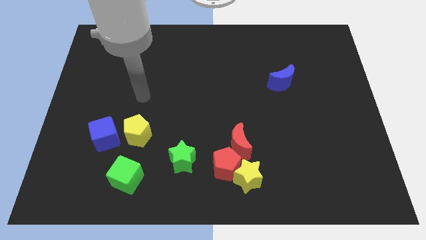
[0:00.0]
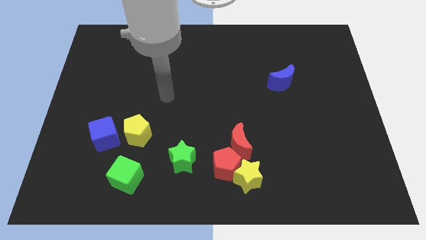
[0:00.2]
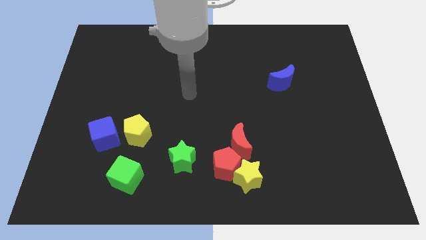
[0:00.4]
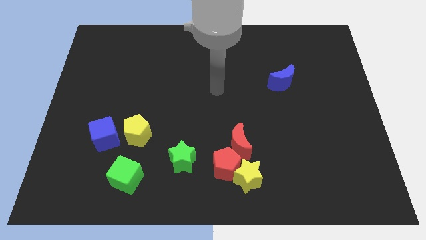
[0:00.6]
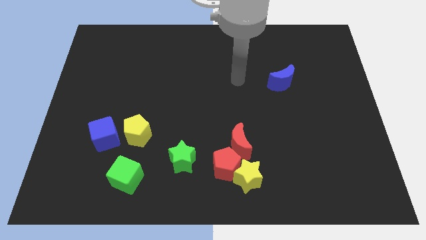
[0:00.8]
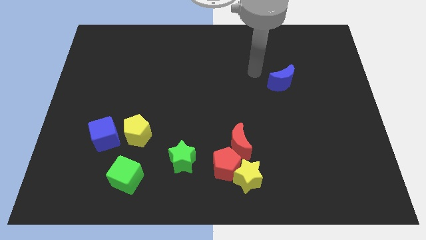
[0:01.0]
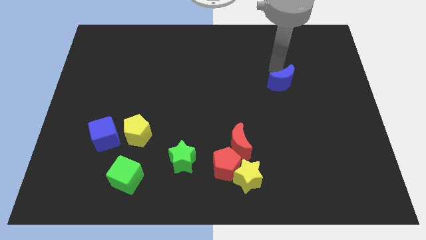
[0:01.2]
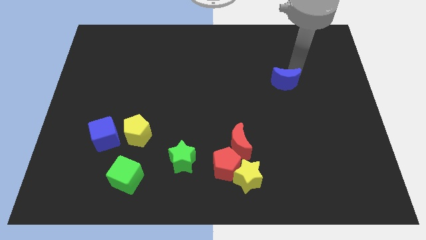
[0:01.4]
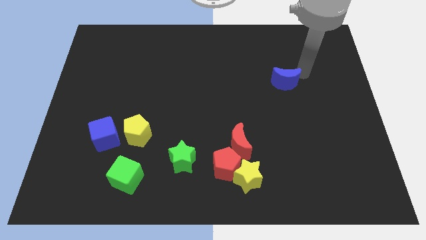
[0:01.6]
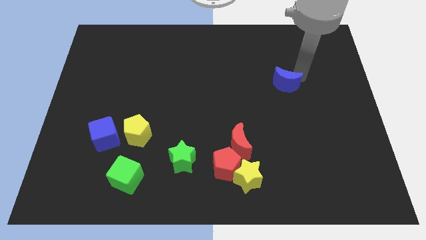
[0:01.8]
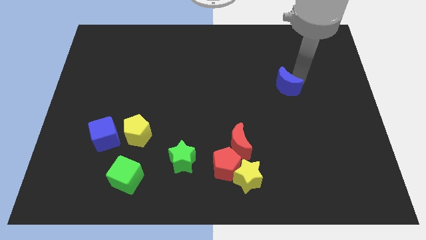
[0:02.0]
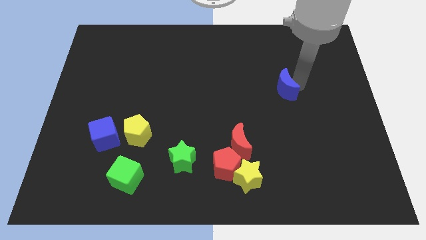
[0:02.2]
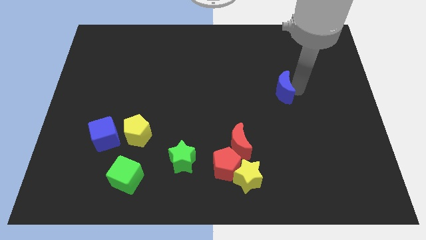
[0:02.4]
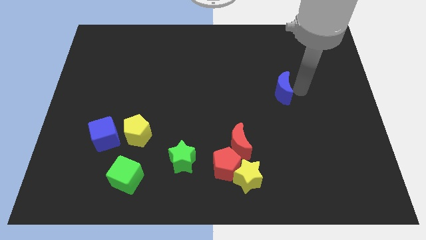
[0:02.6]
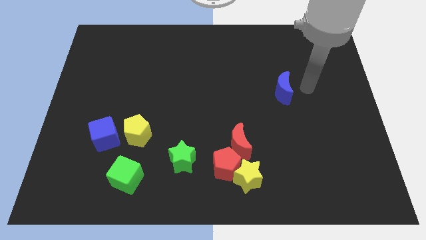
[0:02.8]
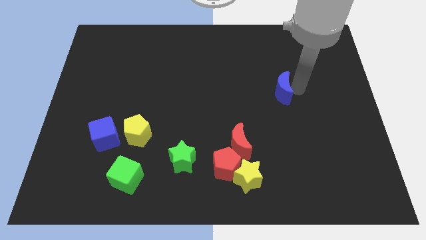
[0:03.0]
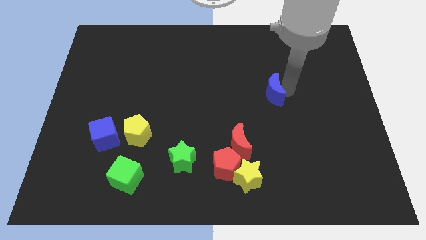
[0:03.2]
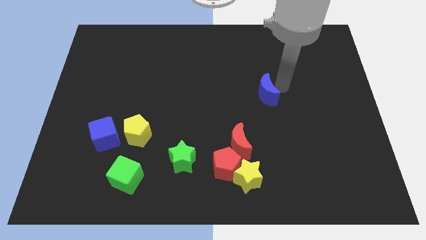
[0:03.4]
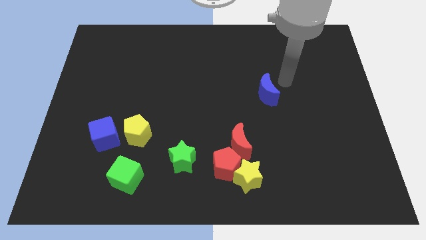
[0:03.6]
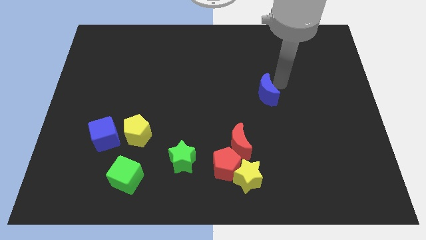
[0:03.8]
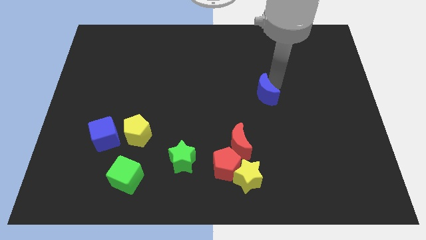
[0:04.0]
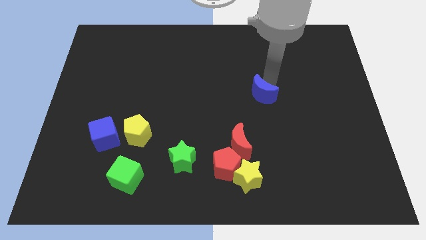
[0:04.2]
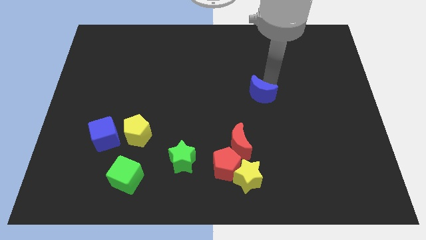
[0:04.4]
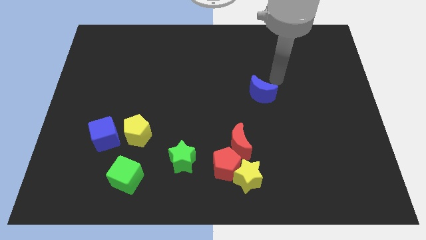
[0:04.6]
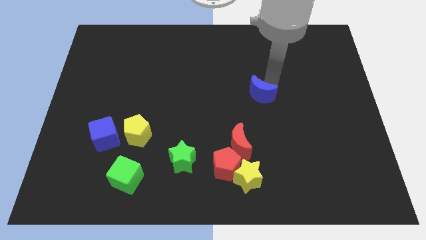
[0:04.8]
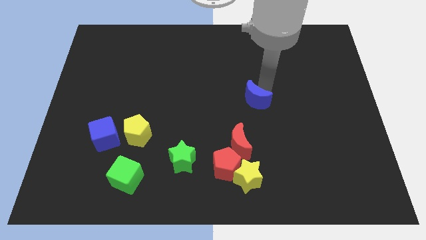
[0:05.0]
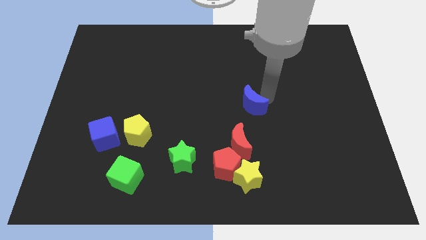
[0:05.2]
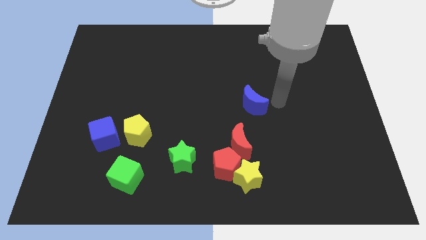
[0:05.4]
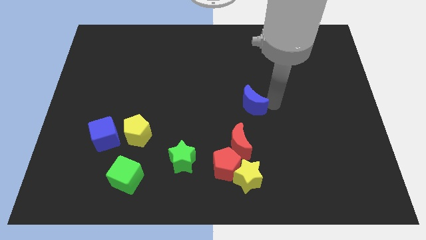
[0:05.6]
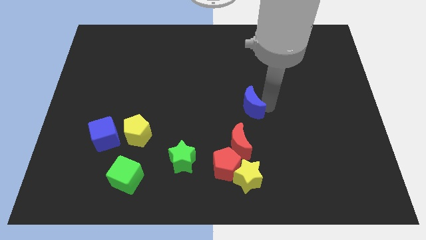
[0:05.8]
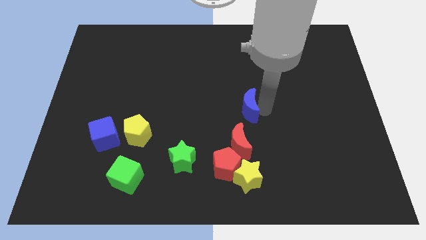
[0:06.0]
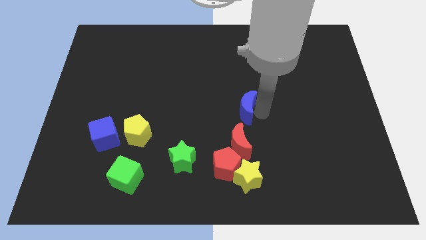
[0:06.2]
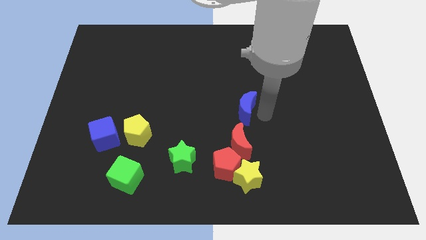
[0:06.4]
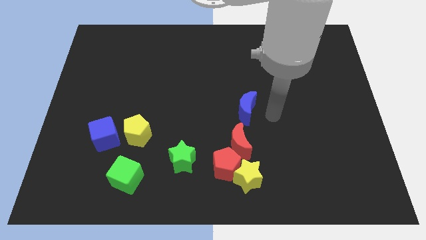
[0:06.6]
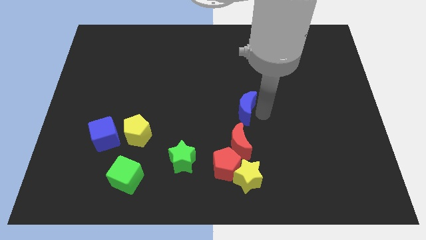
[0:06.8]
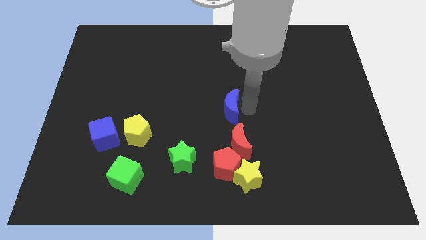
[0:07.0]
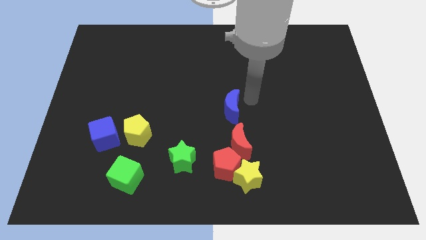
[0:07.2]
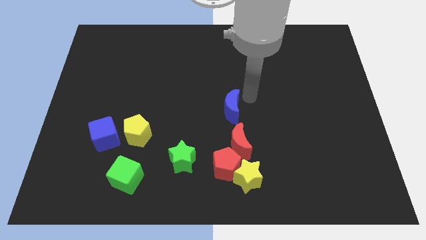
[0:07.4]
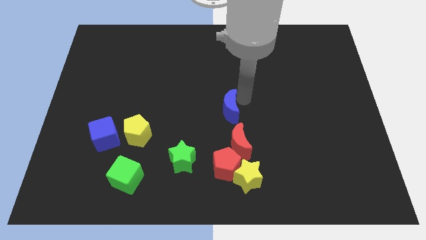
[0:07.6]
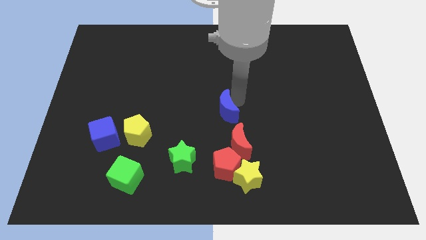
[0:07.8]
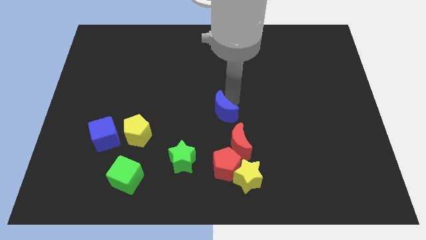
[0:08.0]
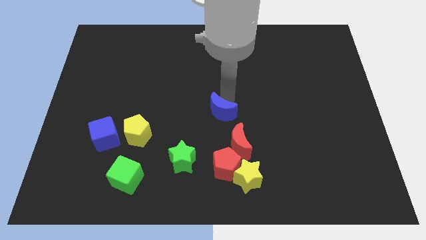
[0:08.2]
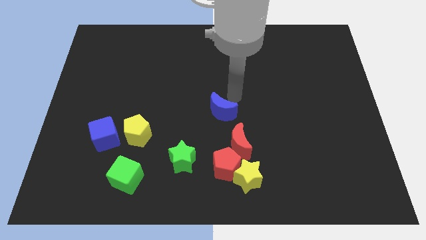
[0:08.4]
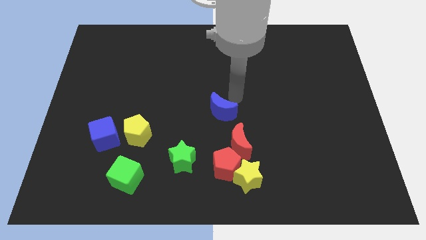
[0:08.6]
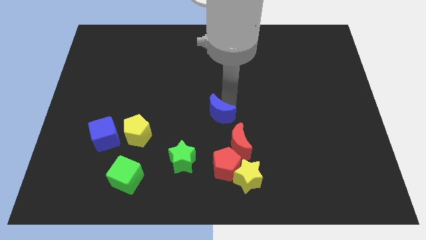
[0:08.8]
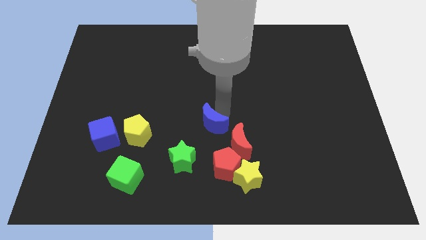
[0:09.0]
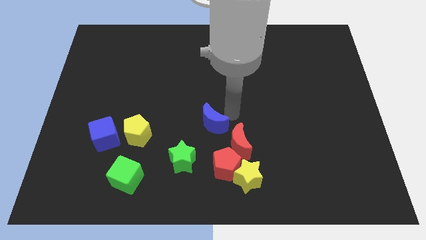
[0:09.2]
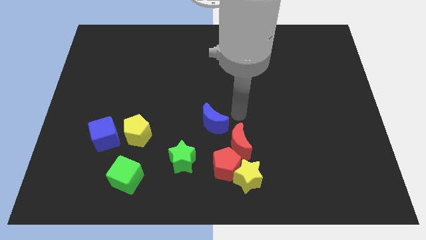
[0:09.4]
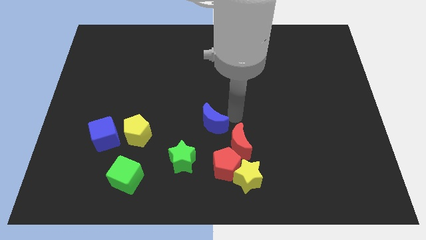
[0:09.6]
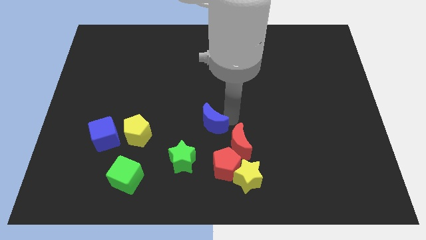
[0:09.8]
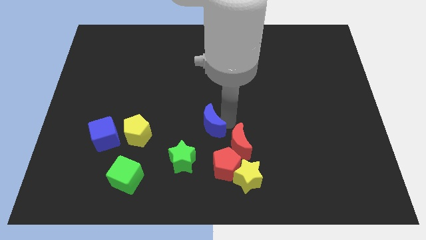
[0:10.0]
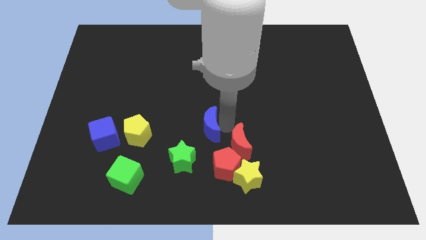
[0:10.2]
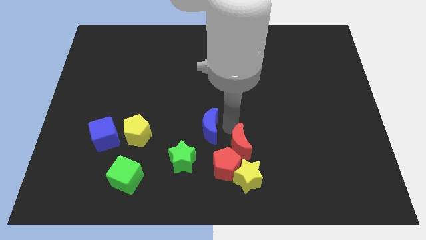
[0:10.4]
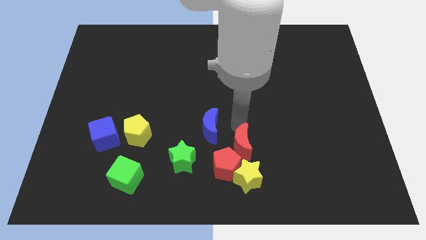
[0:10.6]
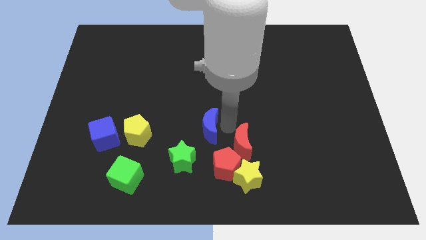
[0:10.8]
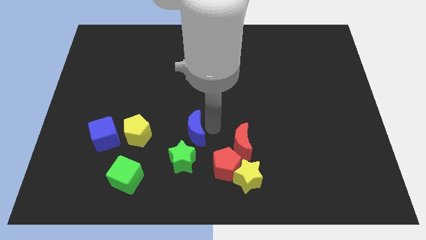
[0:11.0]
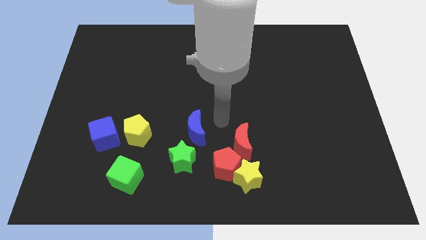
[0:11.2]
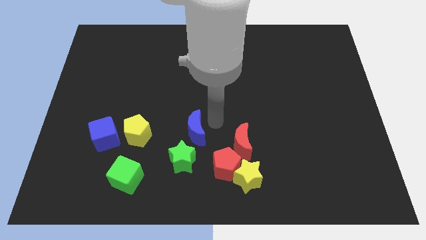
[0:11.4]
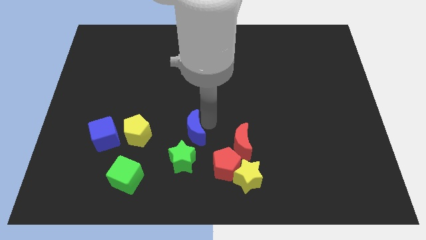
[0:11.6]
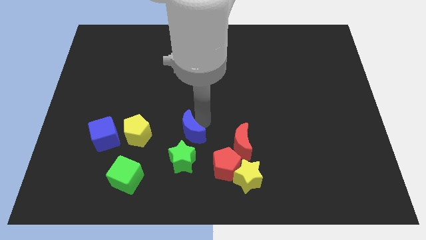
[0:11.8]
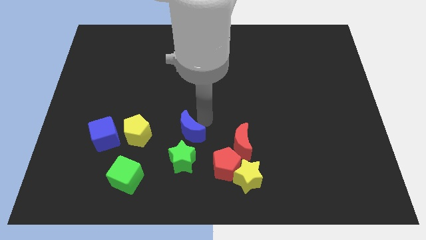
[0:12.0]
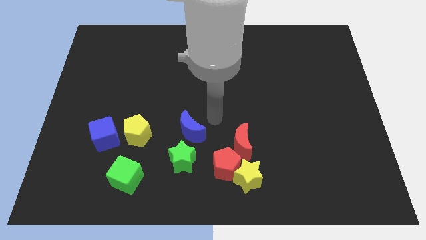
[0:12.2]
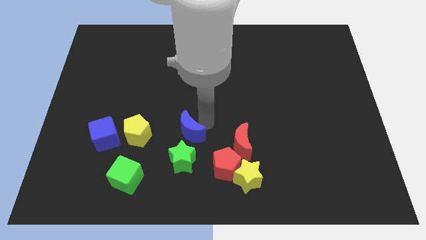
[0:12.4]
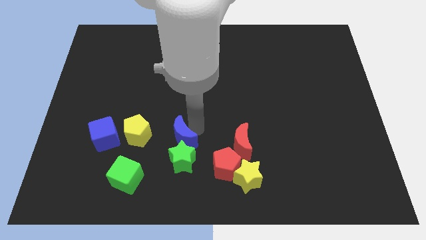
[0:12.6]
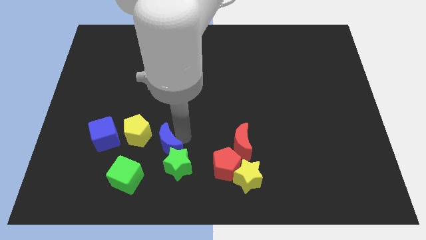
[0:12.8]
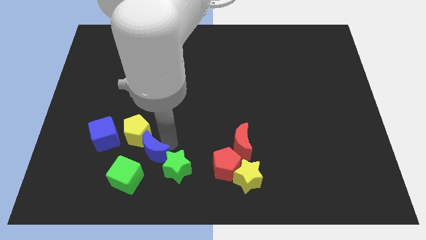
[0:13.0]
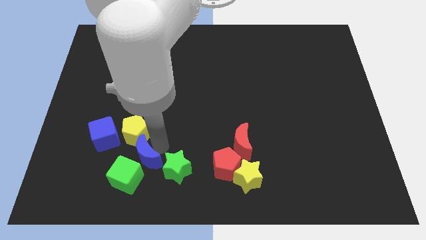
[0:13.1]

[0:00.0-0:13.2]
slide the blue moon towards the green cube

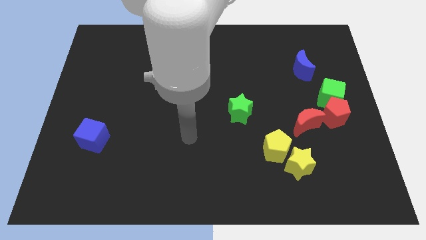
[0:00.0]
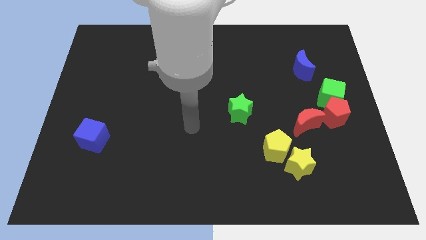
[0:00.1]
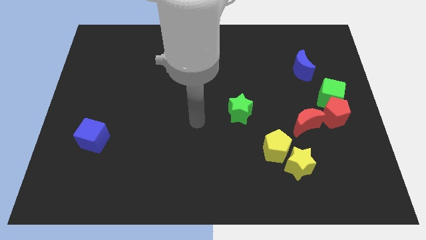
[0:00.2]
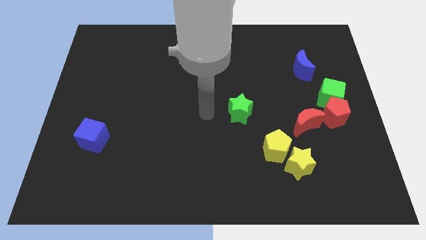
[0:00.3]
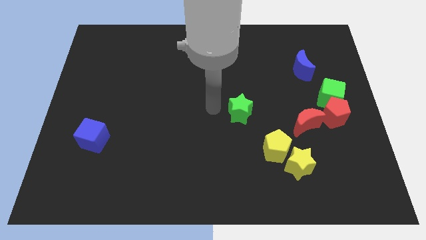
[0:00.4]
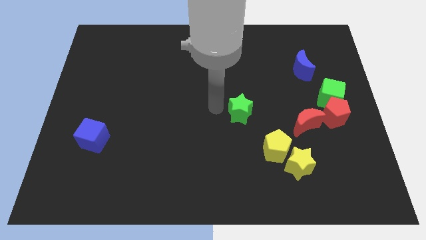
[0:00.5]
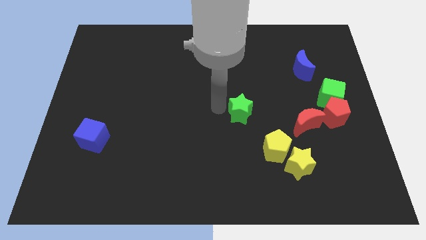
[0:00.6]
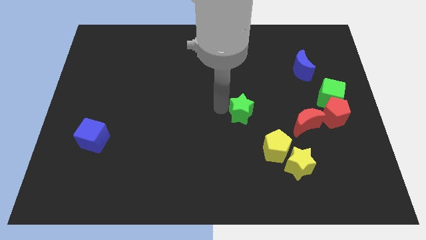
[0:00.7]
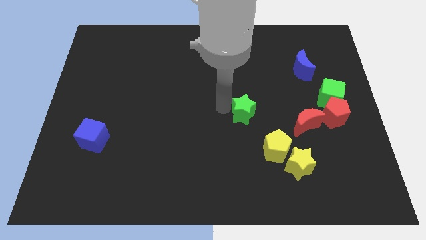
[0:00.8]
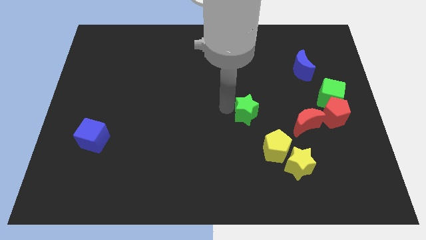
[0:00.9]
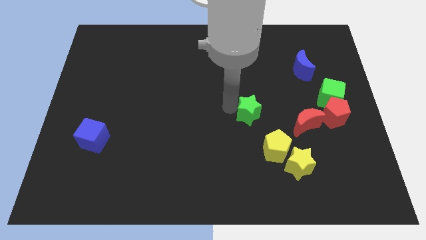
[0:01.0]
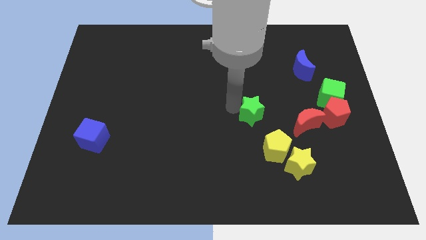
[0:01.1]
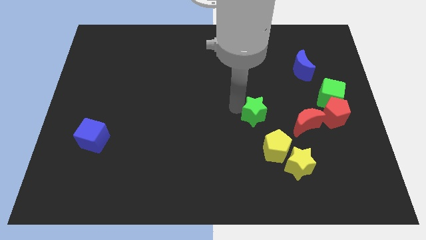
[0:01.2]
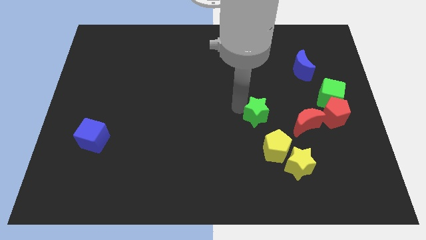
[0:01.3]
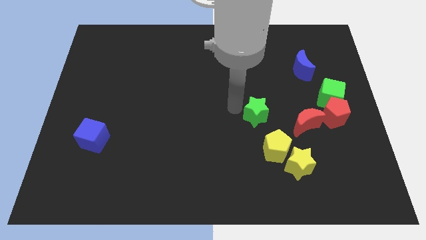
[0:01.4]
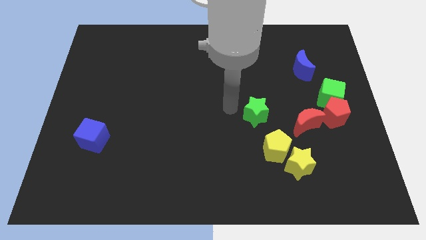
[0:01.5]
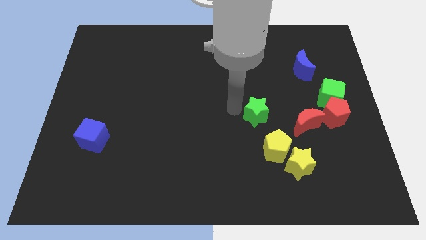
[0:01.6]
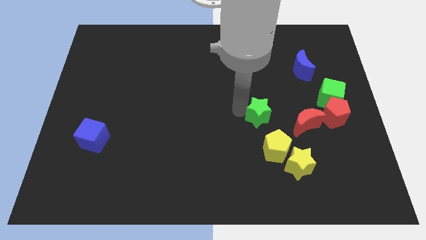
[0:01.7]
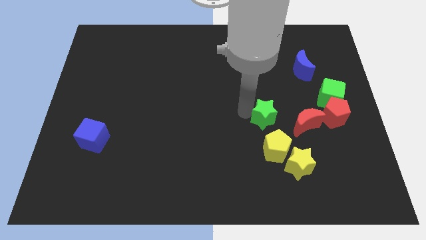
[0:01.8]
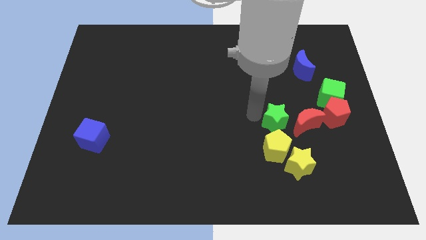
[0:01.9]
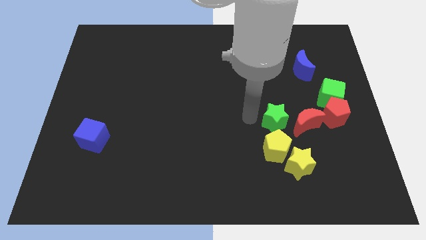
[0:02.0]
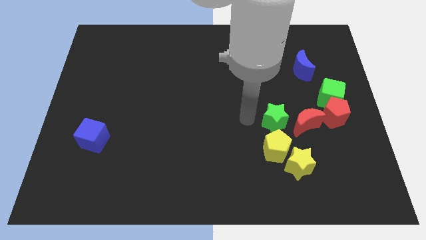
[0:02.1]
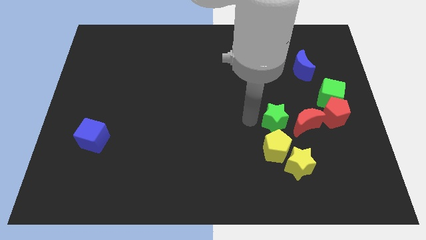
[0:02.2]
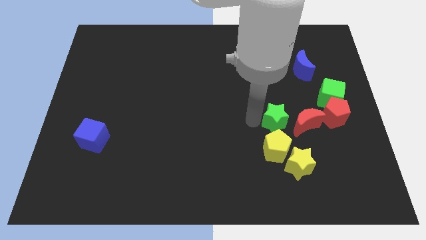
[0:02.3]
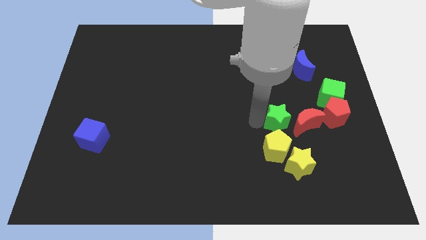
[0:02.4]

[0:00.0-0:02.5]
slide the green star towards the red moon
